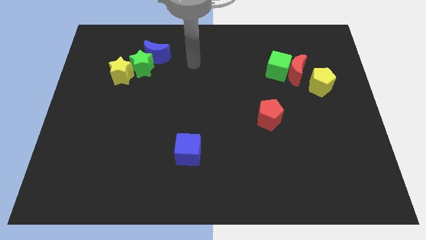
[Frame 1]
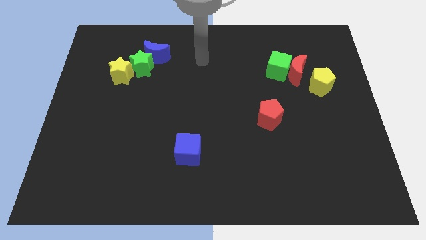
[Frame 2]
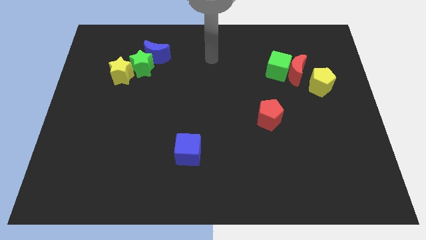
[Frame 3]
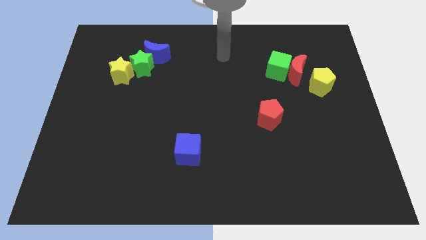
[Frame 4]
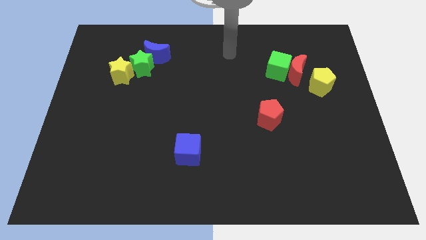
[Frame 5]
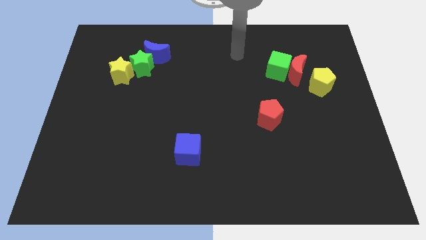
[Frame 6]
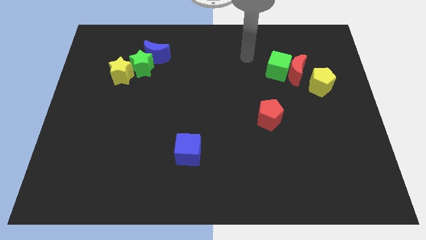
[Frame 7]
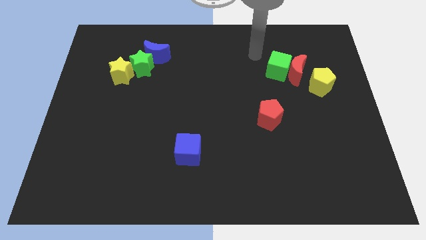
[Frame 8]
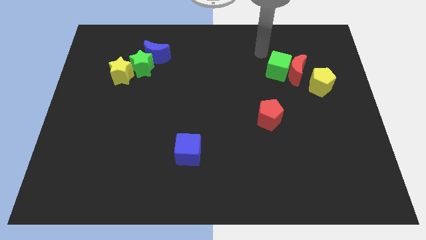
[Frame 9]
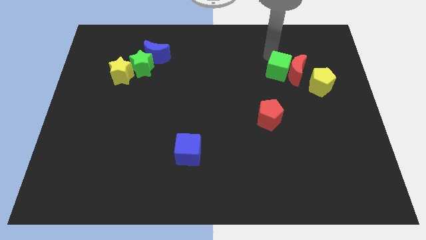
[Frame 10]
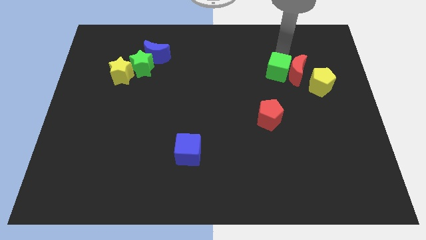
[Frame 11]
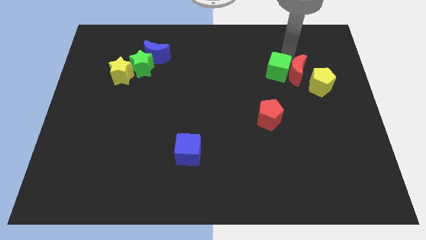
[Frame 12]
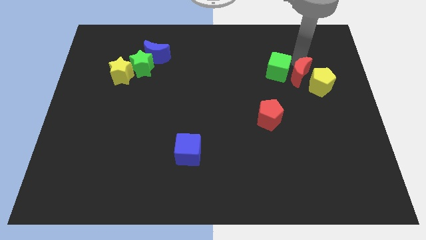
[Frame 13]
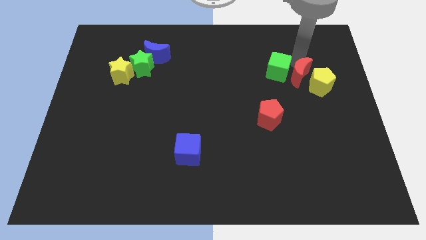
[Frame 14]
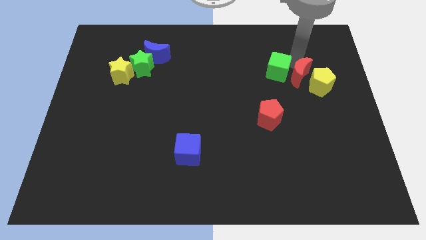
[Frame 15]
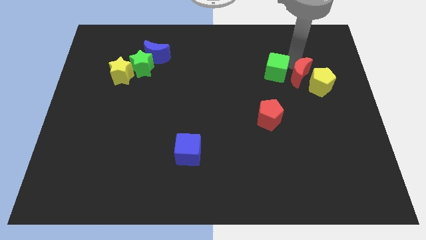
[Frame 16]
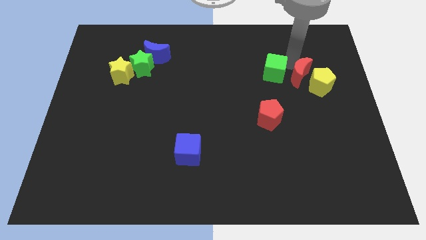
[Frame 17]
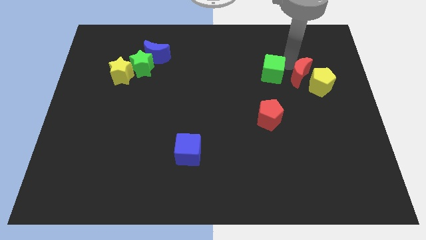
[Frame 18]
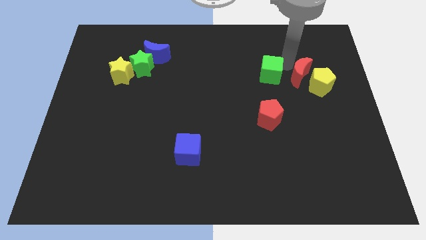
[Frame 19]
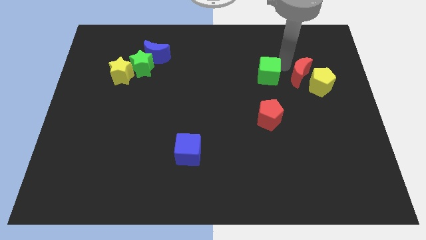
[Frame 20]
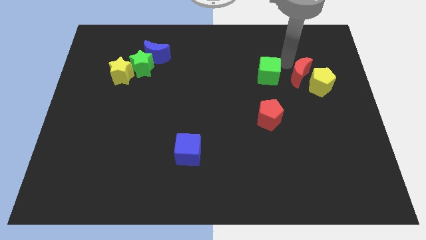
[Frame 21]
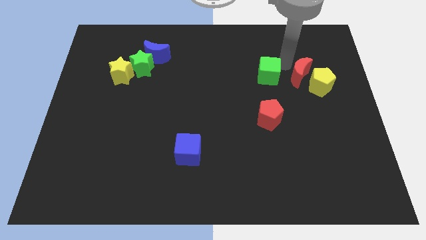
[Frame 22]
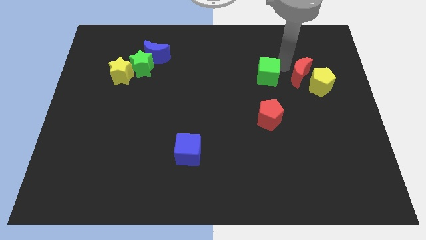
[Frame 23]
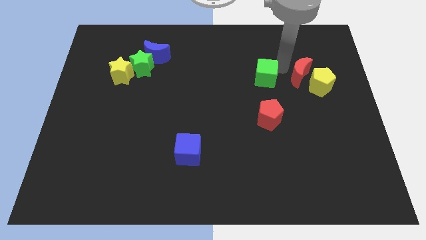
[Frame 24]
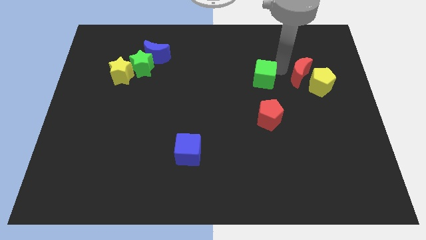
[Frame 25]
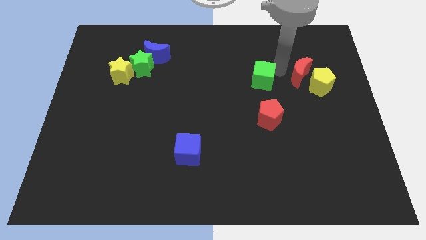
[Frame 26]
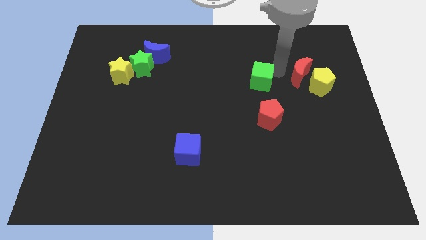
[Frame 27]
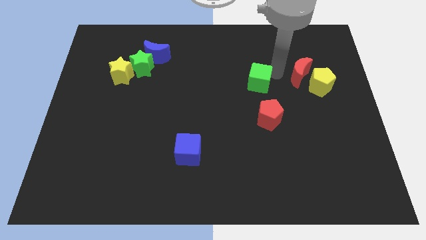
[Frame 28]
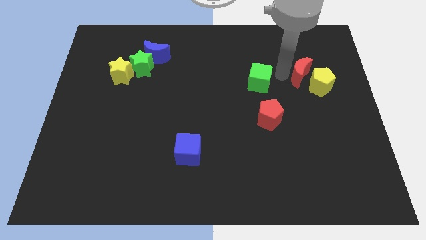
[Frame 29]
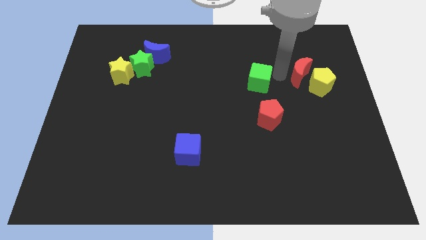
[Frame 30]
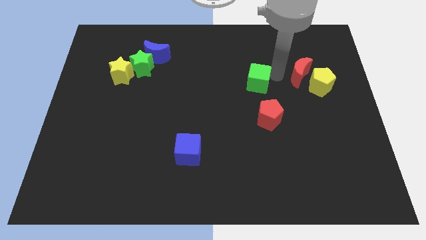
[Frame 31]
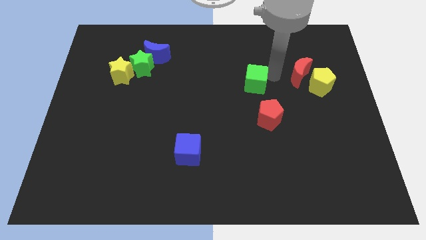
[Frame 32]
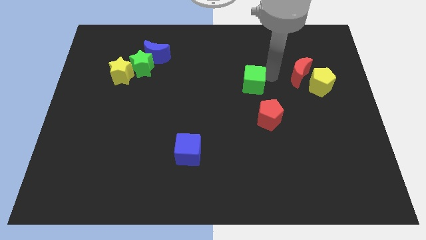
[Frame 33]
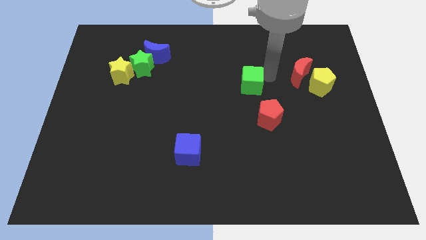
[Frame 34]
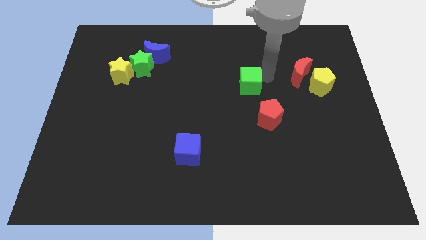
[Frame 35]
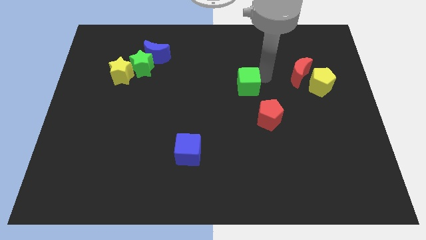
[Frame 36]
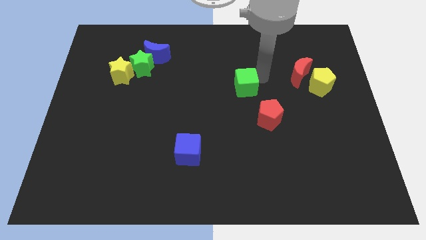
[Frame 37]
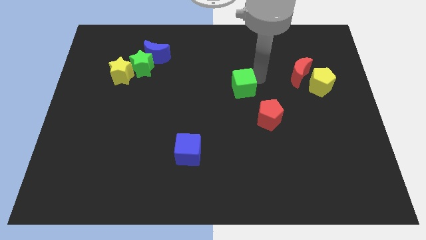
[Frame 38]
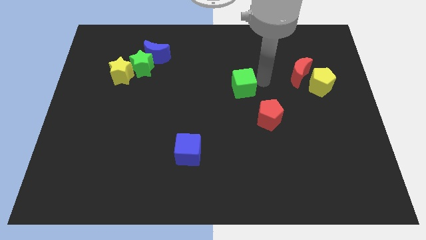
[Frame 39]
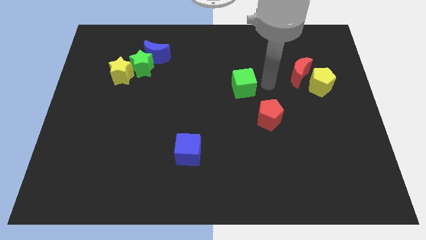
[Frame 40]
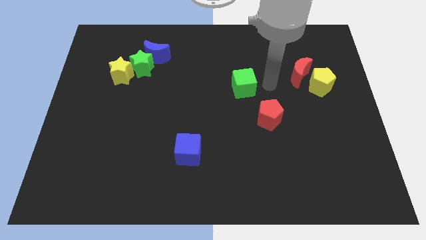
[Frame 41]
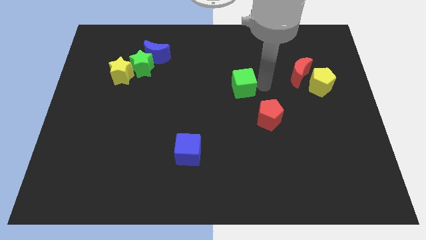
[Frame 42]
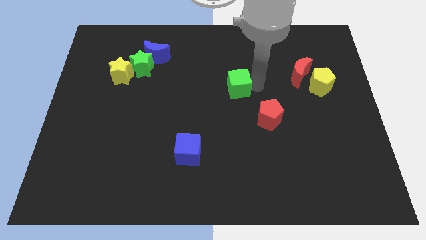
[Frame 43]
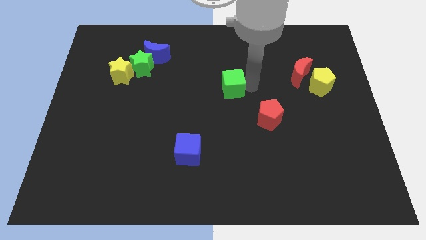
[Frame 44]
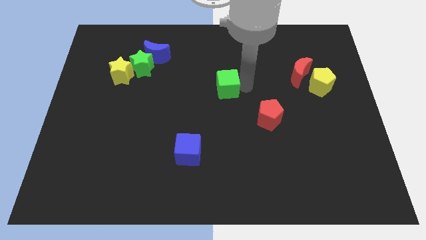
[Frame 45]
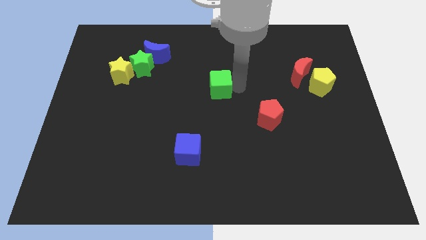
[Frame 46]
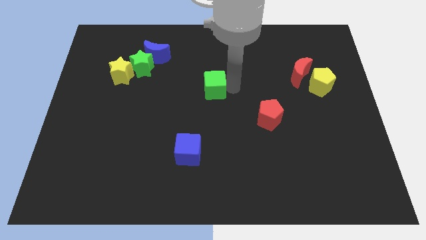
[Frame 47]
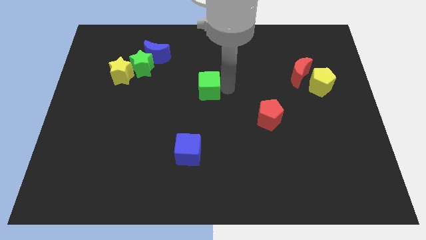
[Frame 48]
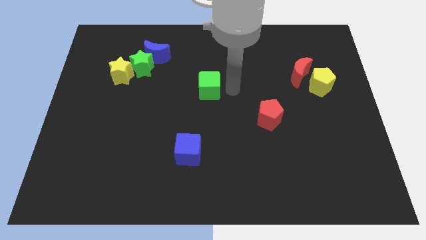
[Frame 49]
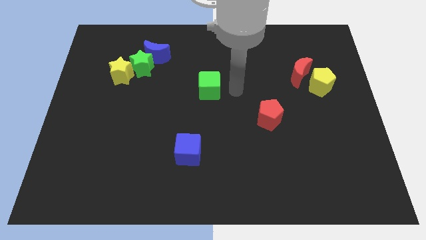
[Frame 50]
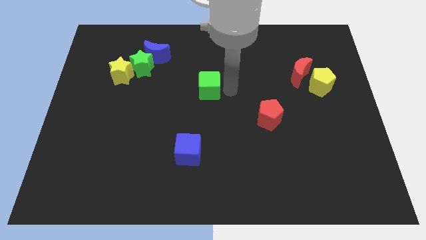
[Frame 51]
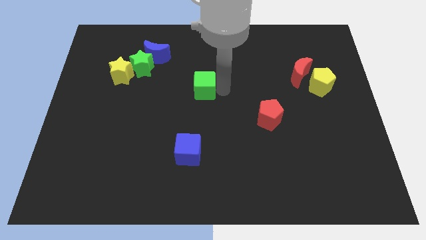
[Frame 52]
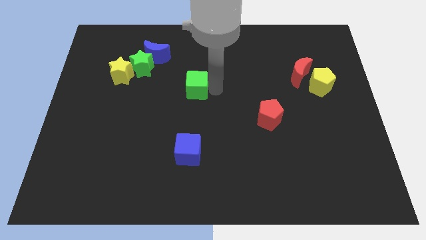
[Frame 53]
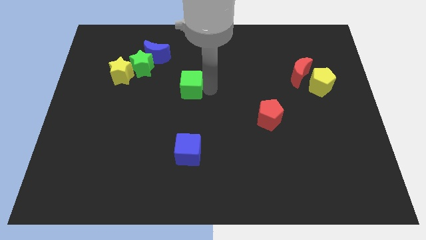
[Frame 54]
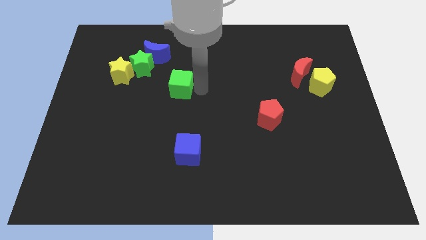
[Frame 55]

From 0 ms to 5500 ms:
put the green cube to the bottom right side of the green star

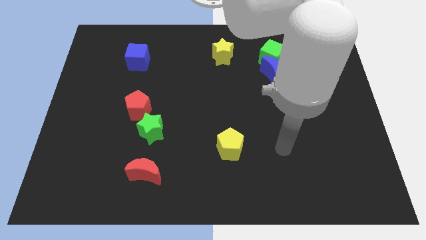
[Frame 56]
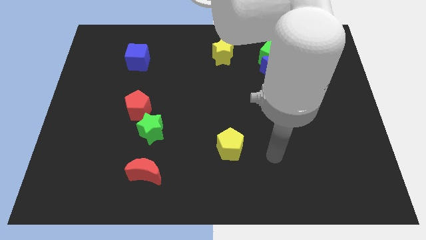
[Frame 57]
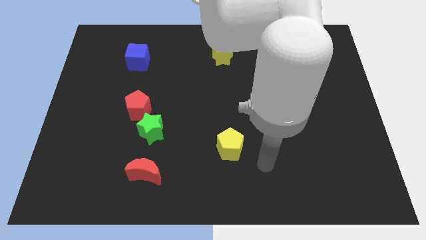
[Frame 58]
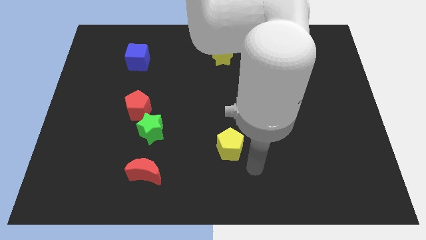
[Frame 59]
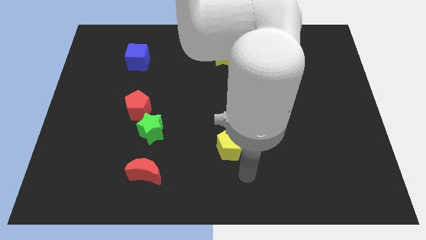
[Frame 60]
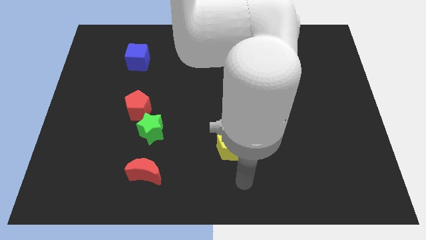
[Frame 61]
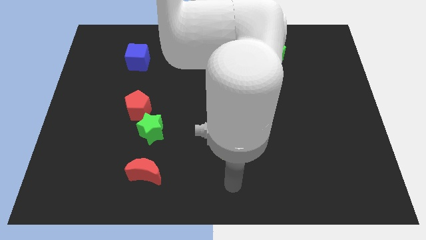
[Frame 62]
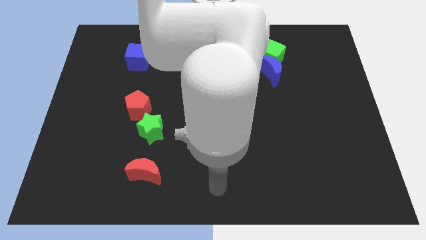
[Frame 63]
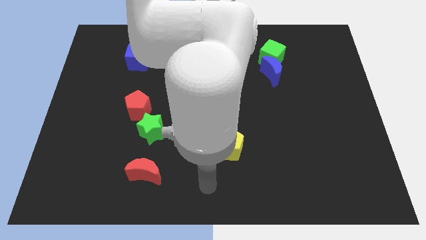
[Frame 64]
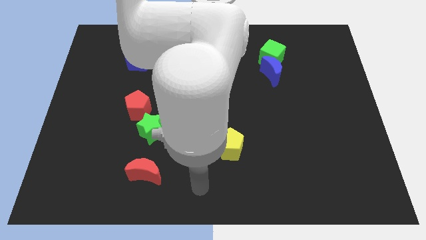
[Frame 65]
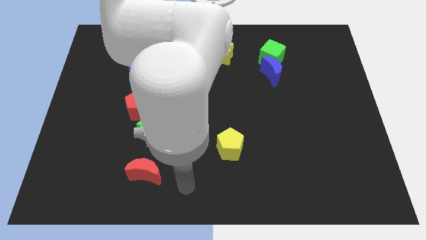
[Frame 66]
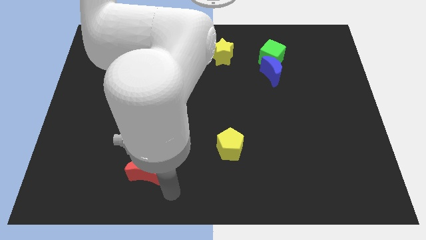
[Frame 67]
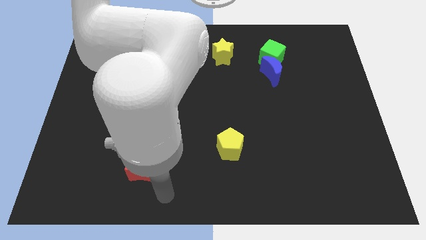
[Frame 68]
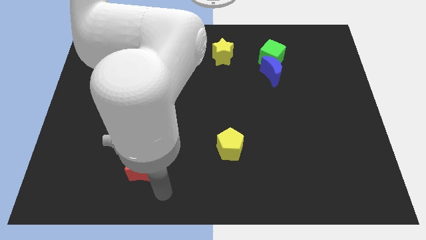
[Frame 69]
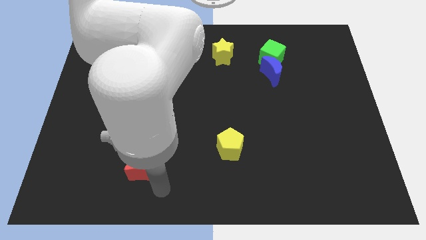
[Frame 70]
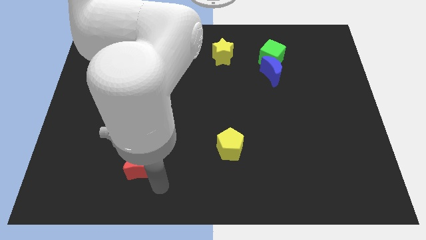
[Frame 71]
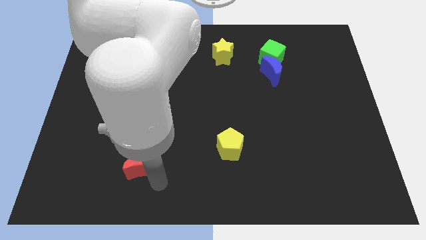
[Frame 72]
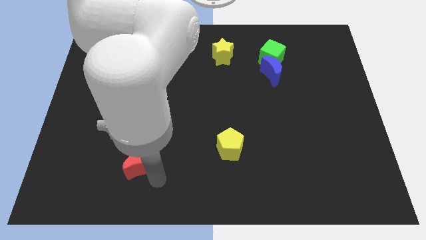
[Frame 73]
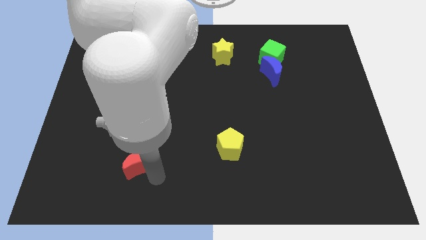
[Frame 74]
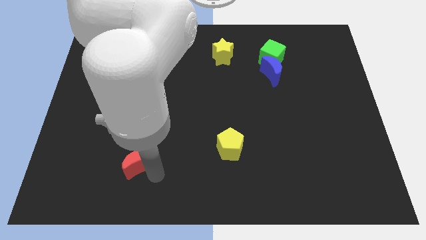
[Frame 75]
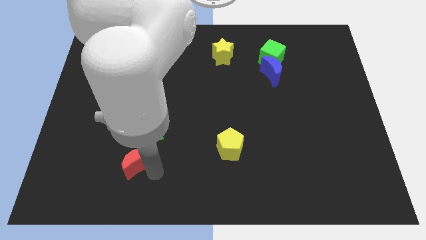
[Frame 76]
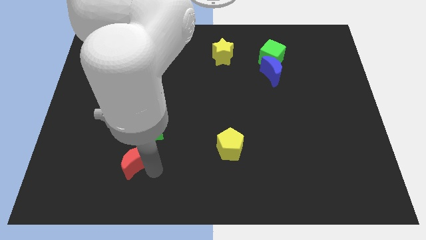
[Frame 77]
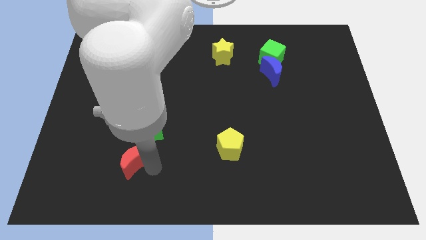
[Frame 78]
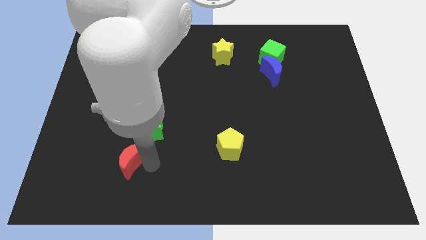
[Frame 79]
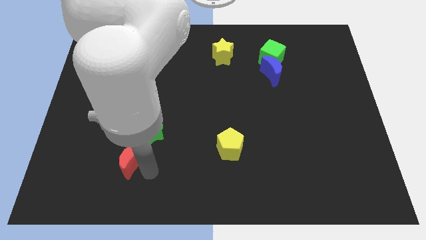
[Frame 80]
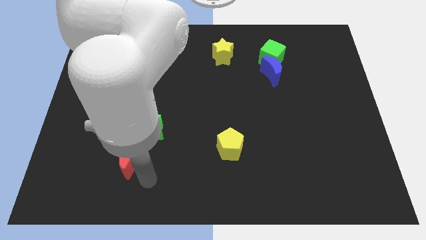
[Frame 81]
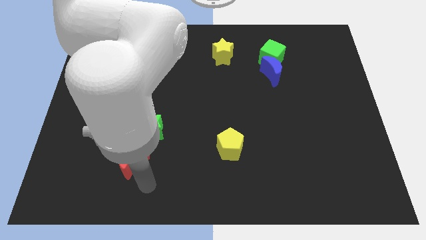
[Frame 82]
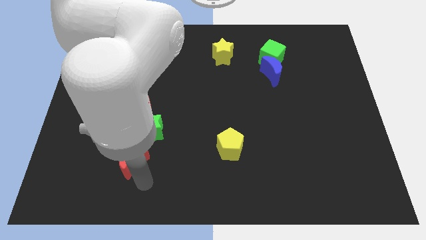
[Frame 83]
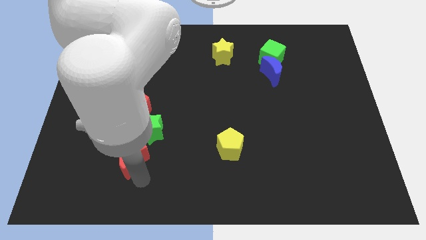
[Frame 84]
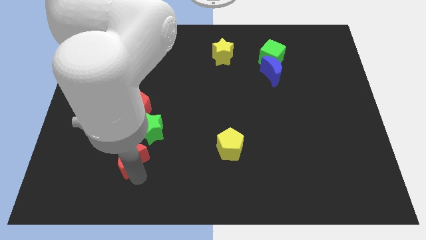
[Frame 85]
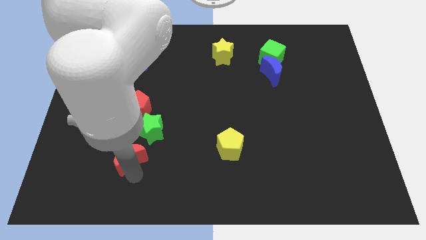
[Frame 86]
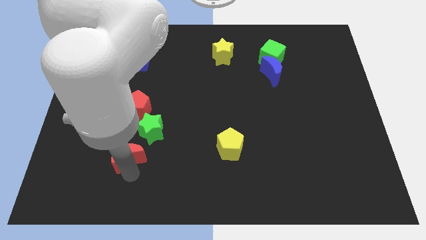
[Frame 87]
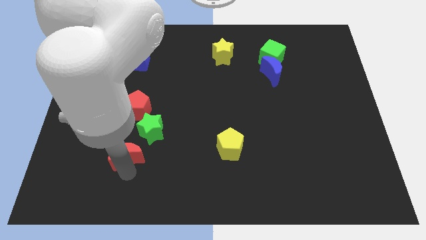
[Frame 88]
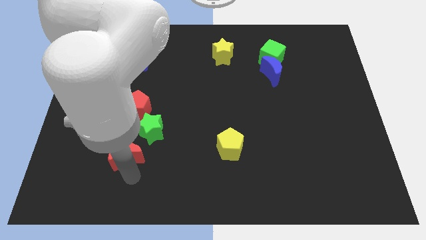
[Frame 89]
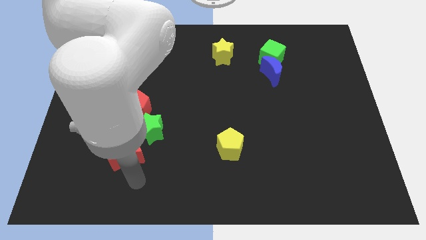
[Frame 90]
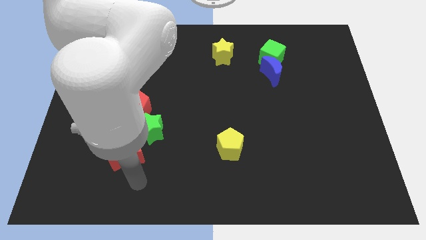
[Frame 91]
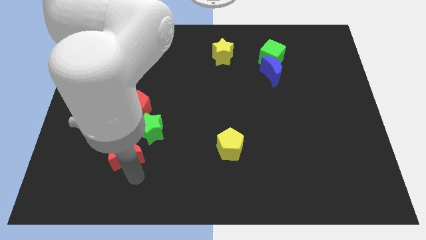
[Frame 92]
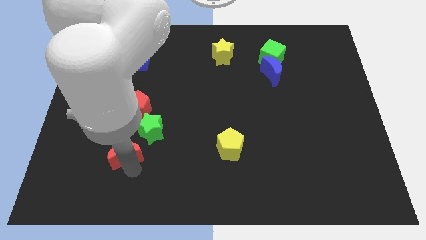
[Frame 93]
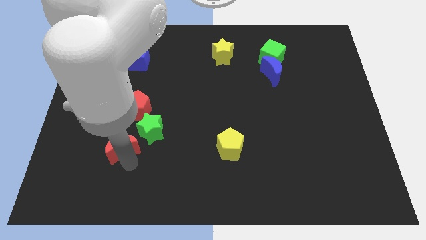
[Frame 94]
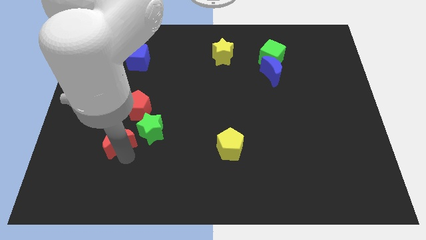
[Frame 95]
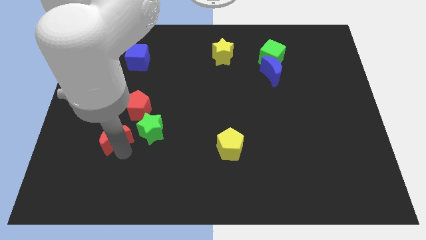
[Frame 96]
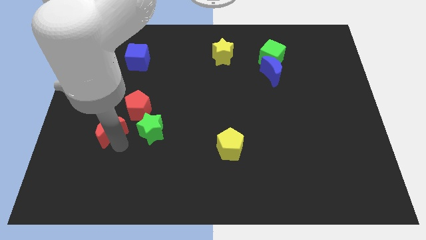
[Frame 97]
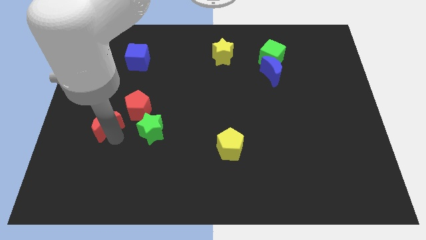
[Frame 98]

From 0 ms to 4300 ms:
slide the red moon just left of the red pentagon
